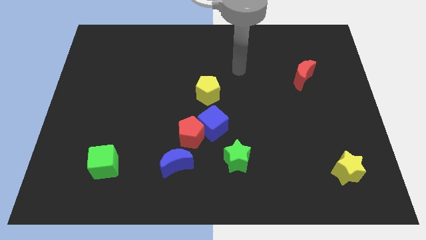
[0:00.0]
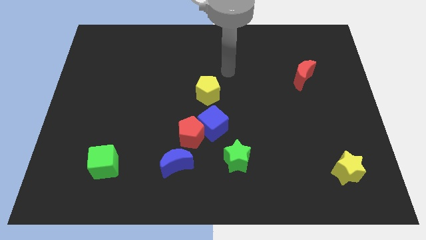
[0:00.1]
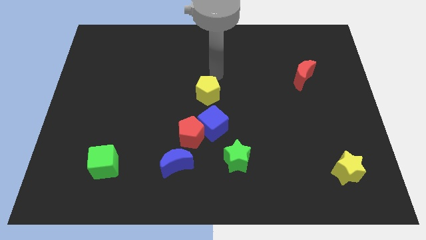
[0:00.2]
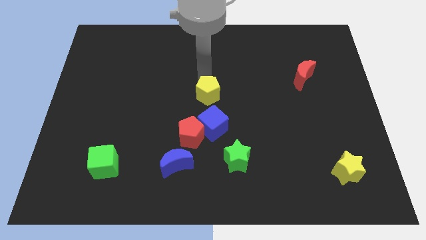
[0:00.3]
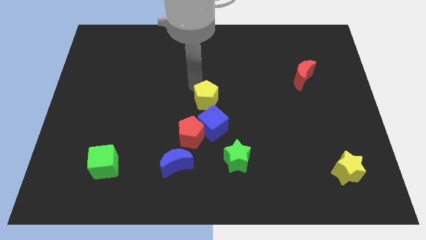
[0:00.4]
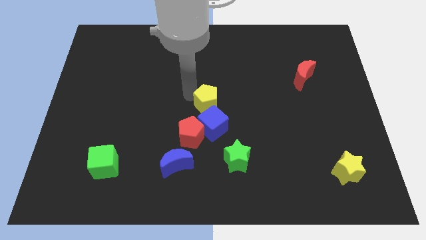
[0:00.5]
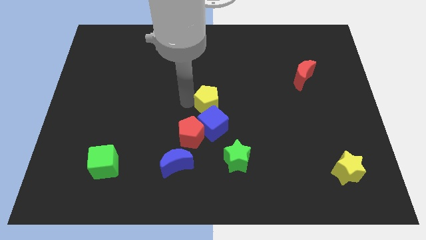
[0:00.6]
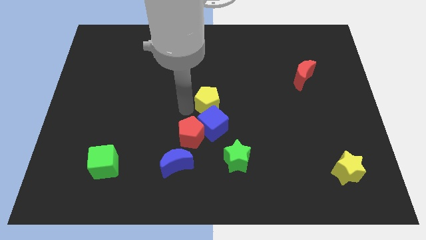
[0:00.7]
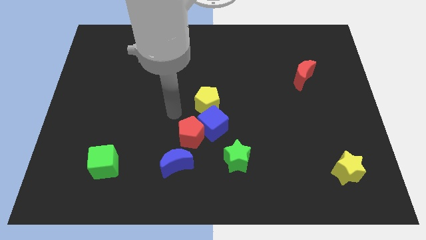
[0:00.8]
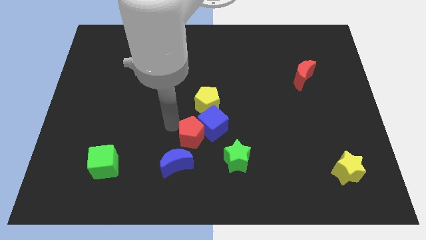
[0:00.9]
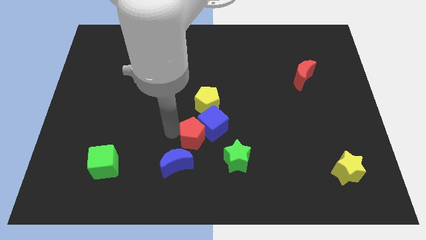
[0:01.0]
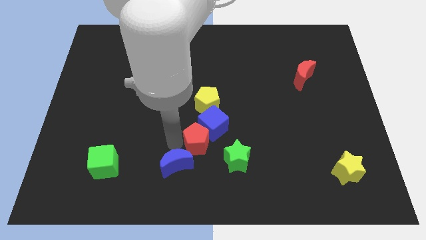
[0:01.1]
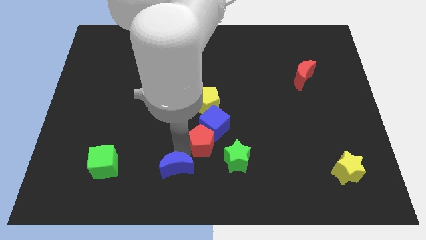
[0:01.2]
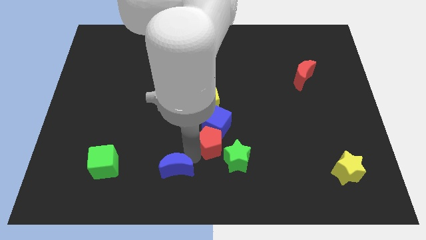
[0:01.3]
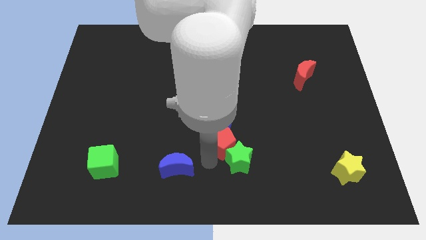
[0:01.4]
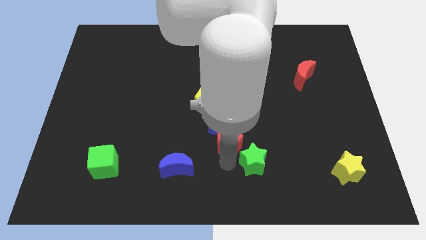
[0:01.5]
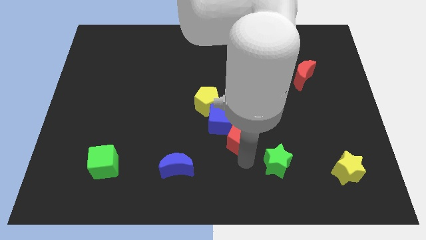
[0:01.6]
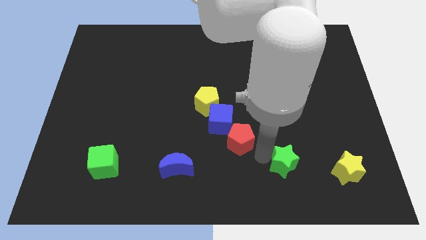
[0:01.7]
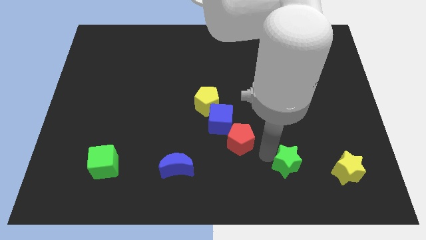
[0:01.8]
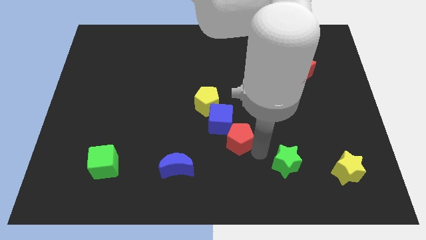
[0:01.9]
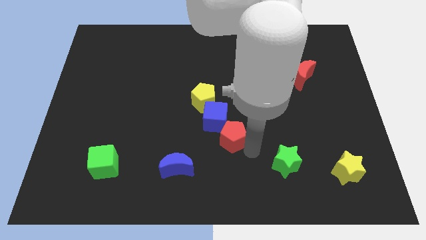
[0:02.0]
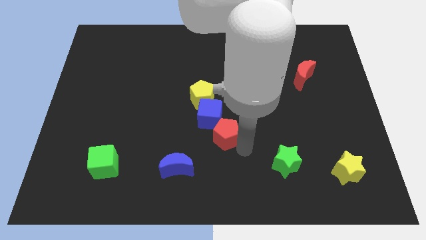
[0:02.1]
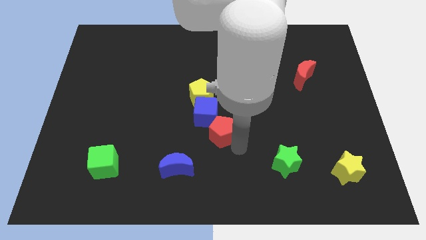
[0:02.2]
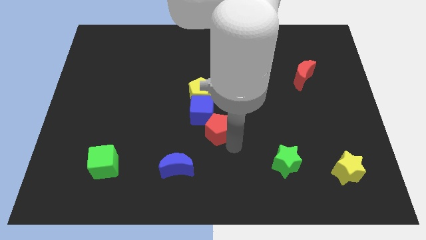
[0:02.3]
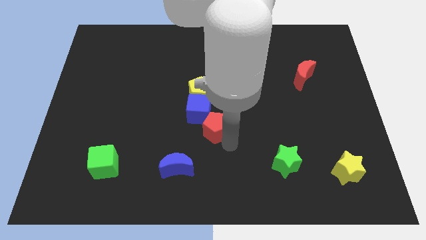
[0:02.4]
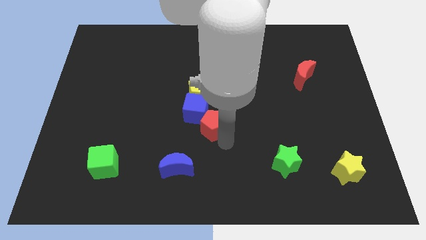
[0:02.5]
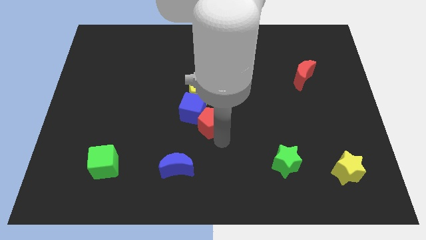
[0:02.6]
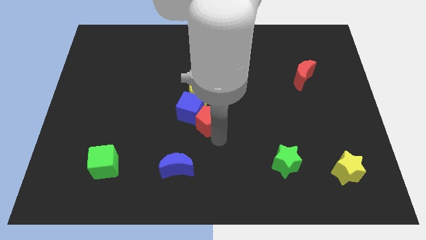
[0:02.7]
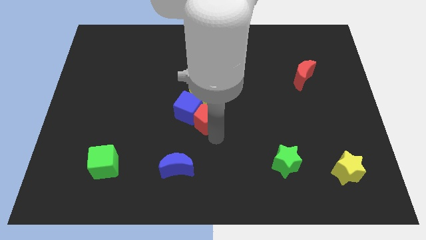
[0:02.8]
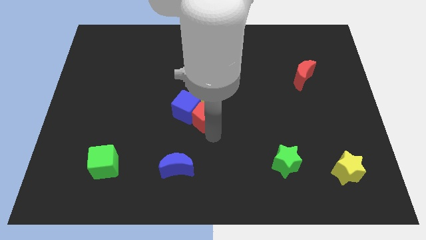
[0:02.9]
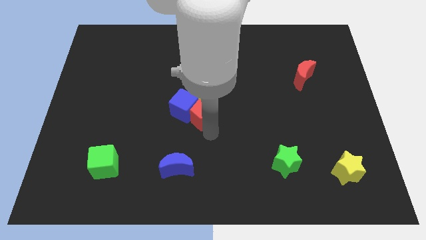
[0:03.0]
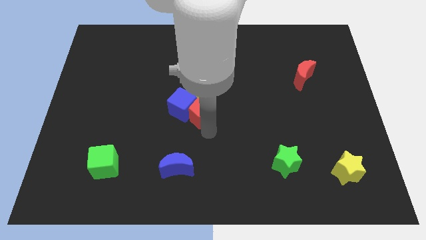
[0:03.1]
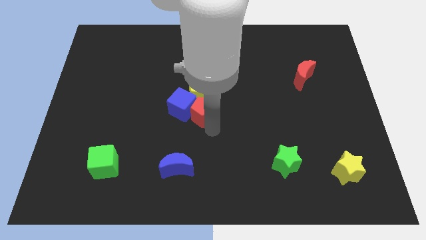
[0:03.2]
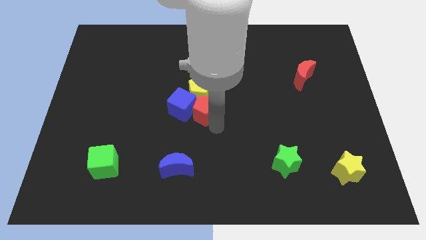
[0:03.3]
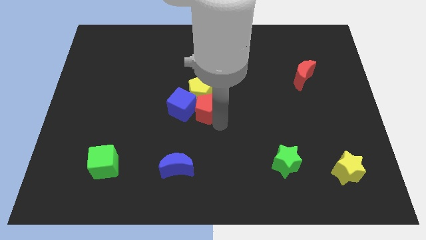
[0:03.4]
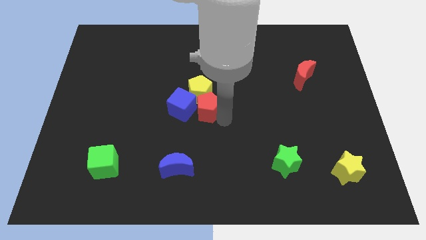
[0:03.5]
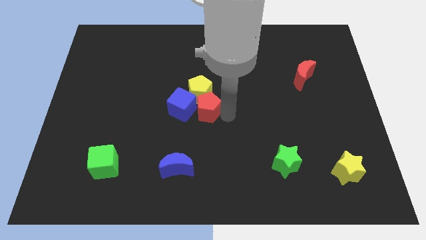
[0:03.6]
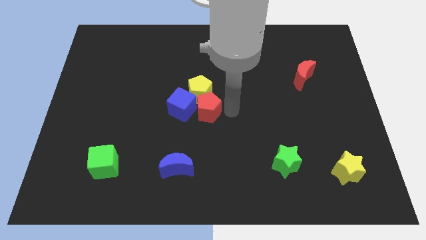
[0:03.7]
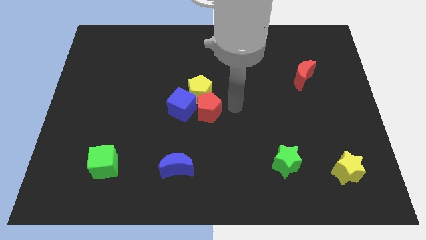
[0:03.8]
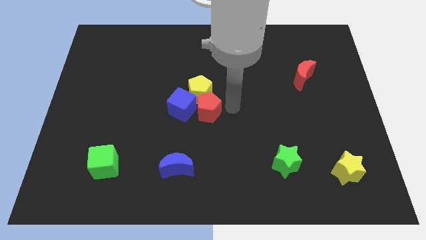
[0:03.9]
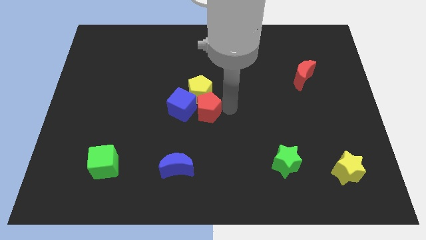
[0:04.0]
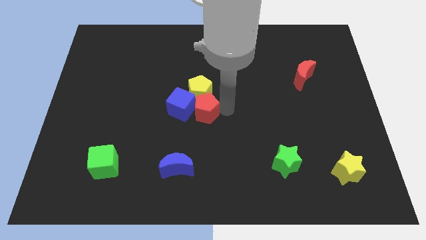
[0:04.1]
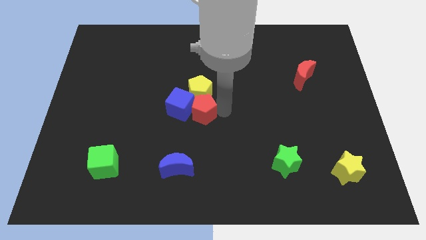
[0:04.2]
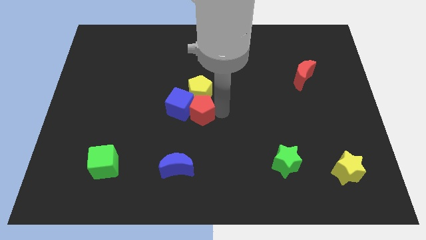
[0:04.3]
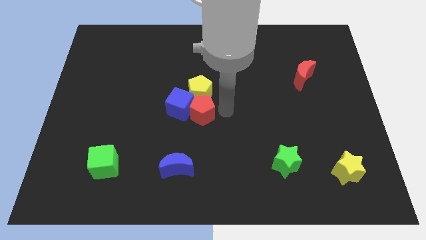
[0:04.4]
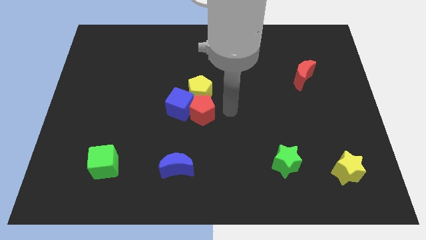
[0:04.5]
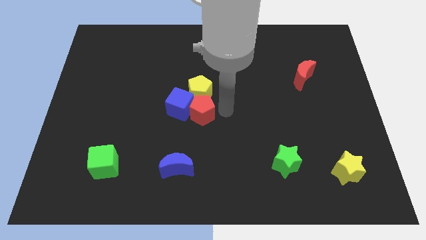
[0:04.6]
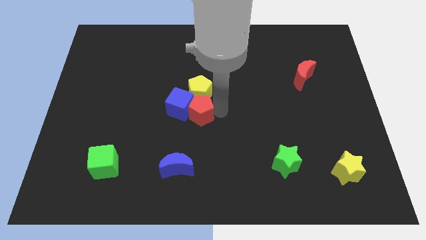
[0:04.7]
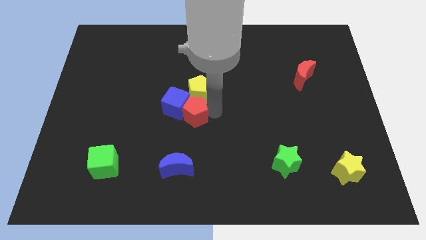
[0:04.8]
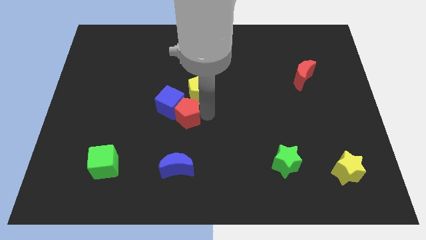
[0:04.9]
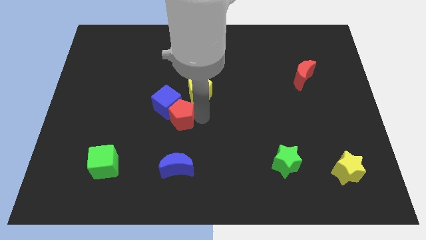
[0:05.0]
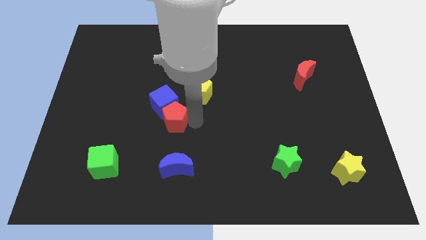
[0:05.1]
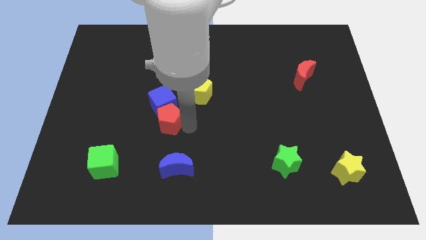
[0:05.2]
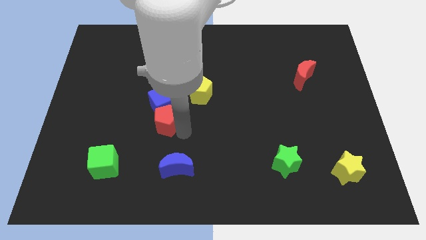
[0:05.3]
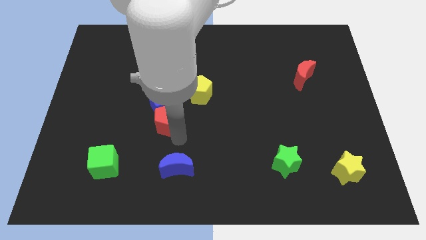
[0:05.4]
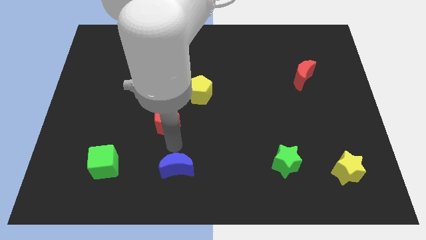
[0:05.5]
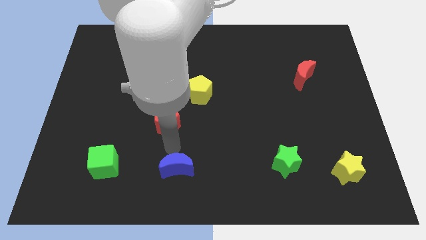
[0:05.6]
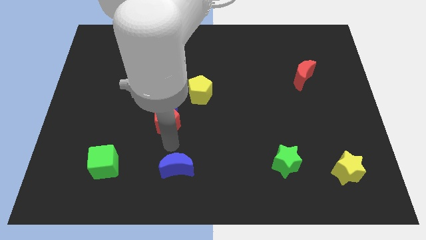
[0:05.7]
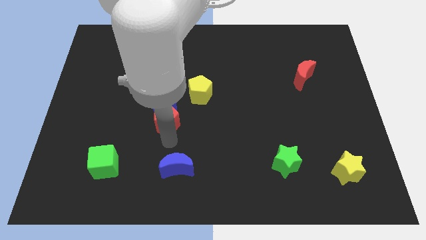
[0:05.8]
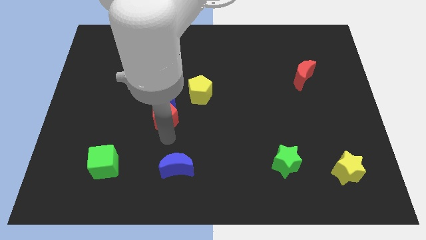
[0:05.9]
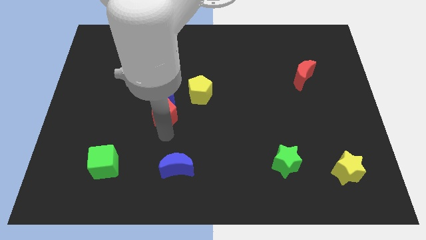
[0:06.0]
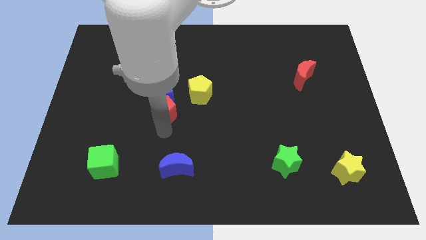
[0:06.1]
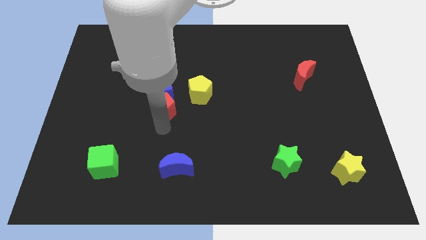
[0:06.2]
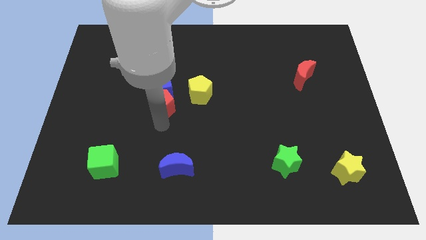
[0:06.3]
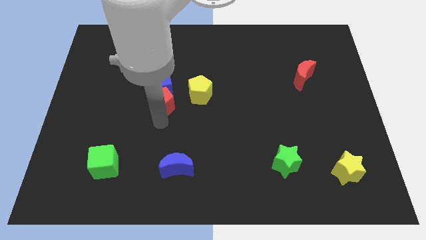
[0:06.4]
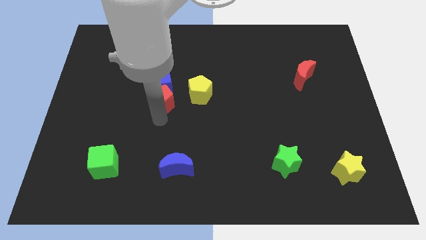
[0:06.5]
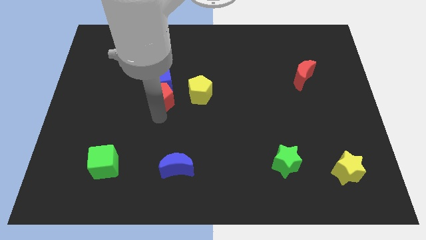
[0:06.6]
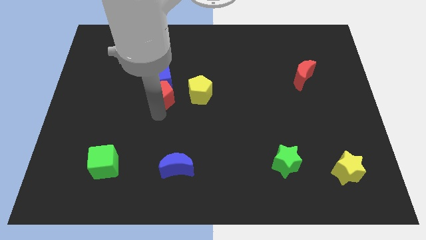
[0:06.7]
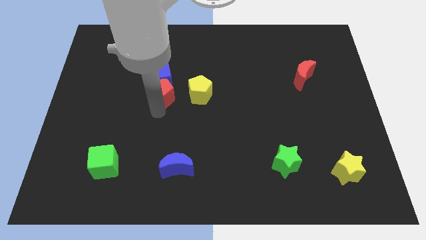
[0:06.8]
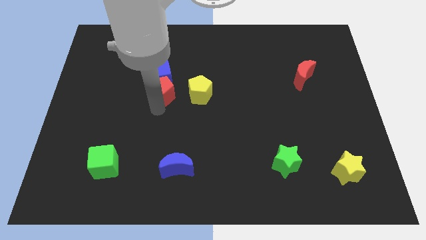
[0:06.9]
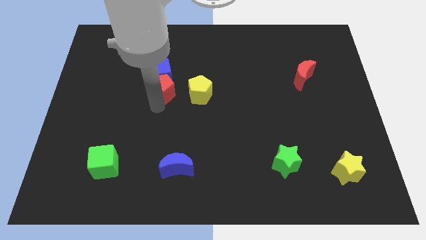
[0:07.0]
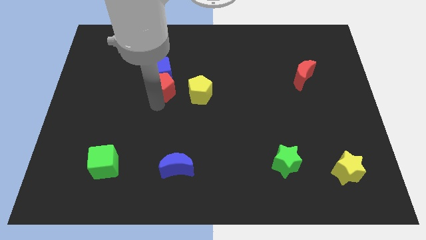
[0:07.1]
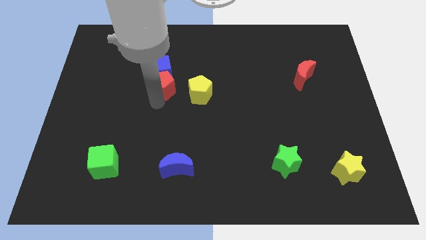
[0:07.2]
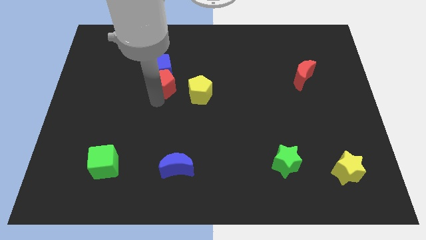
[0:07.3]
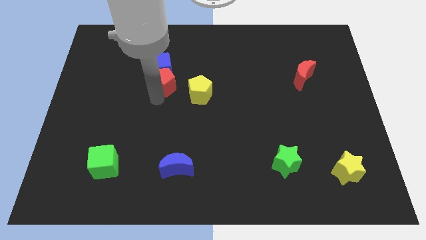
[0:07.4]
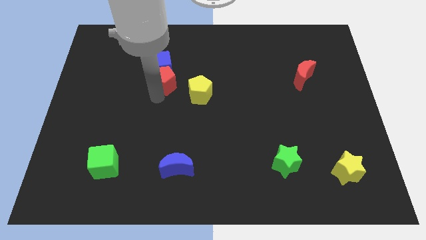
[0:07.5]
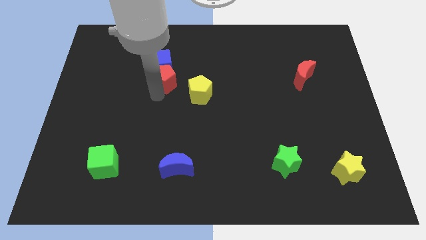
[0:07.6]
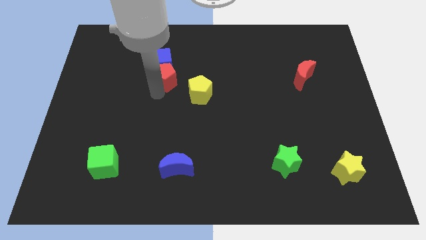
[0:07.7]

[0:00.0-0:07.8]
separate the red pentagon from the blue cube and blue moon

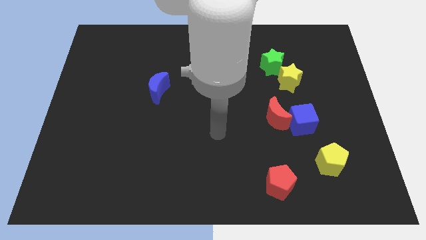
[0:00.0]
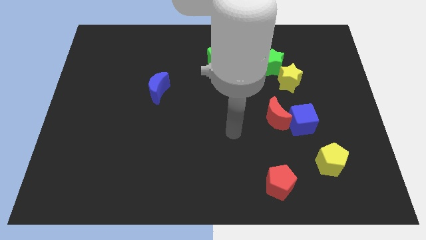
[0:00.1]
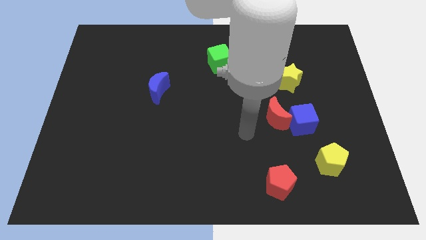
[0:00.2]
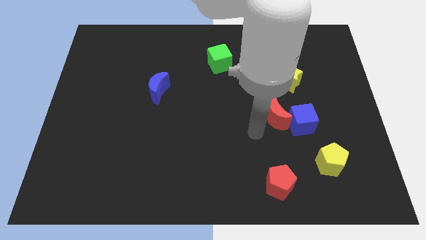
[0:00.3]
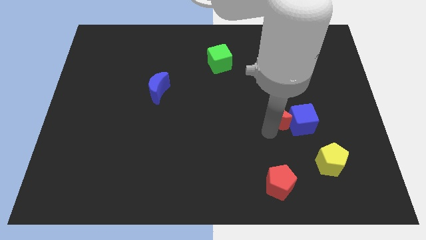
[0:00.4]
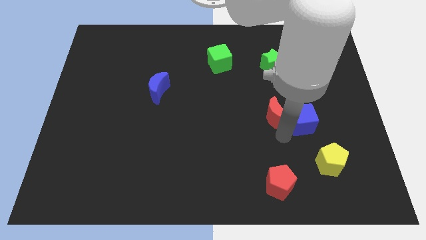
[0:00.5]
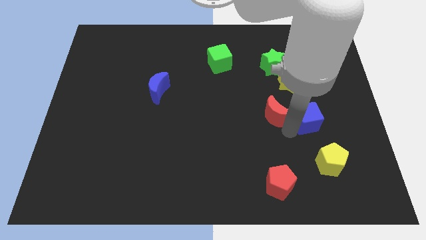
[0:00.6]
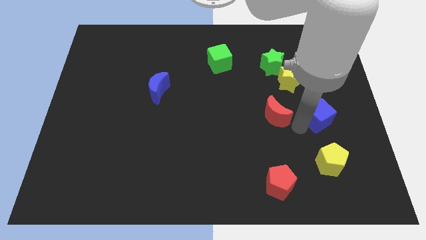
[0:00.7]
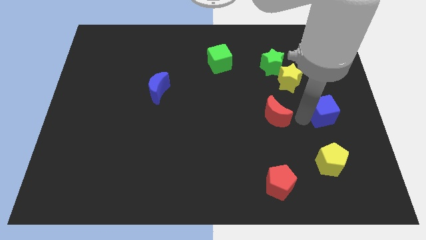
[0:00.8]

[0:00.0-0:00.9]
separate the red moon from the blue cube

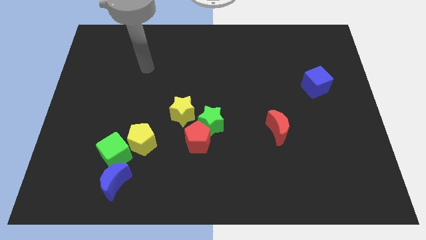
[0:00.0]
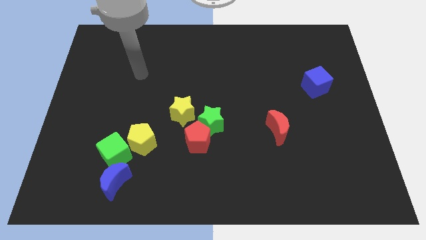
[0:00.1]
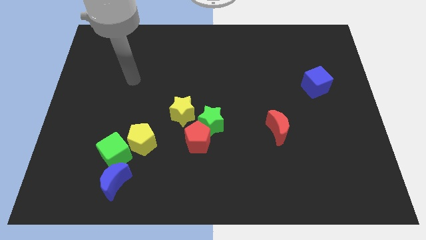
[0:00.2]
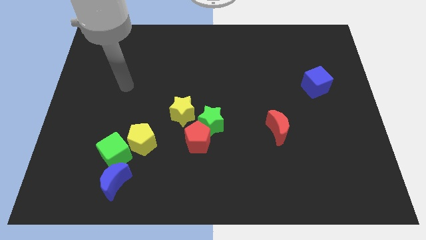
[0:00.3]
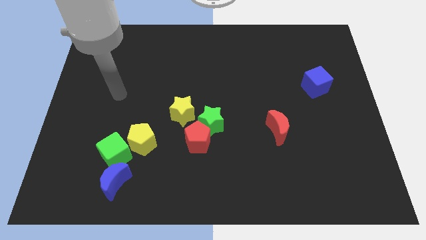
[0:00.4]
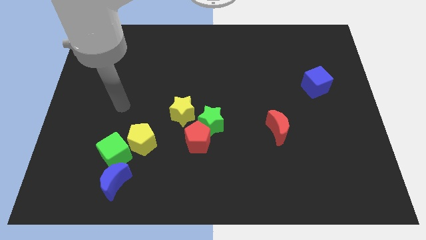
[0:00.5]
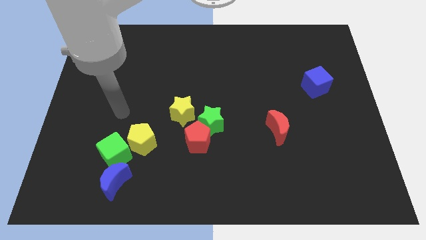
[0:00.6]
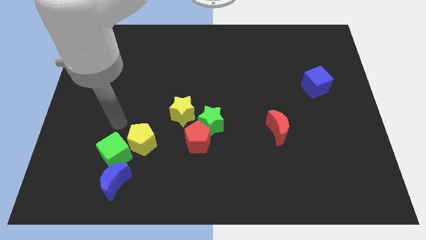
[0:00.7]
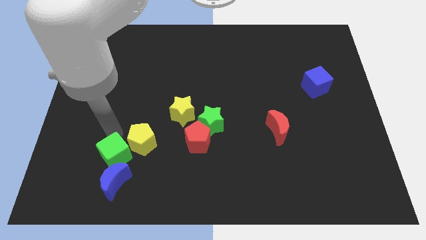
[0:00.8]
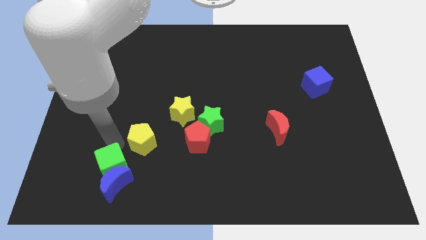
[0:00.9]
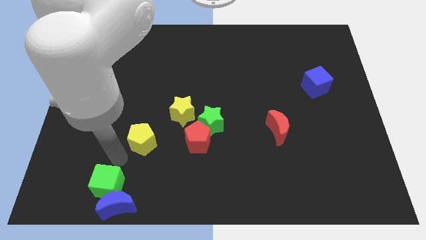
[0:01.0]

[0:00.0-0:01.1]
move the yellow pentagon away from the green cube
